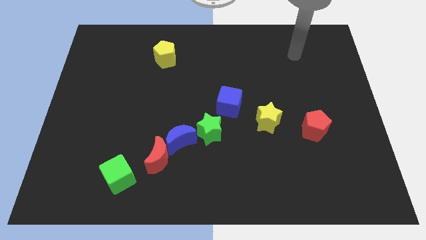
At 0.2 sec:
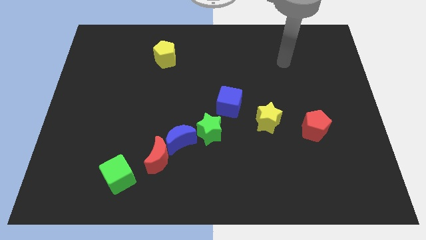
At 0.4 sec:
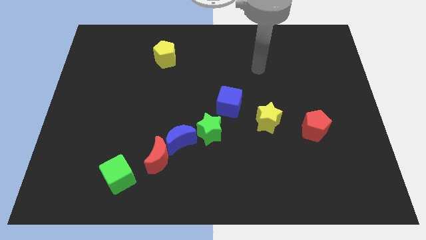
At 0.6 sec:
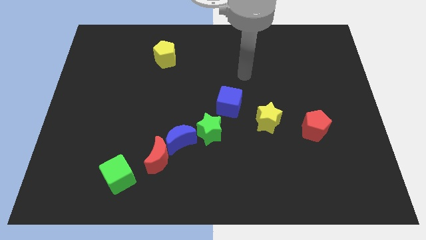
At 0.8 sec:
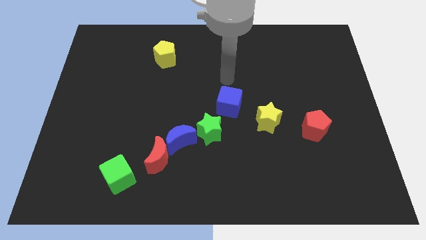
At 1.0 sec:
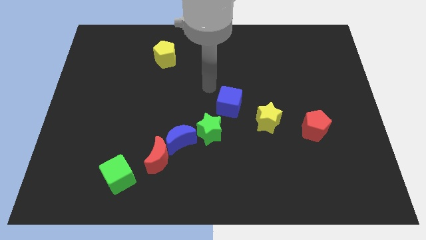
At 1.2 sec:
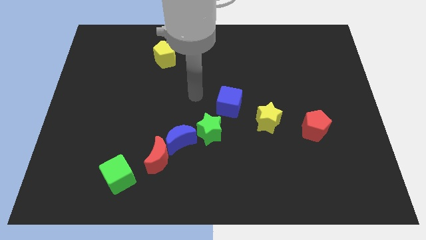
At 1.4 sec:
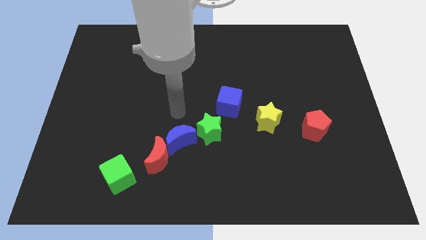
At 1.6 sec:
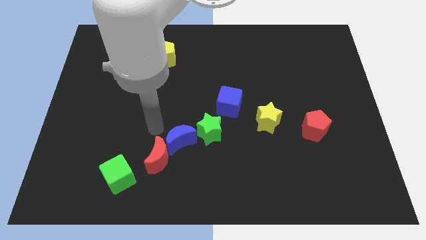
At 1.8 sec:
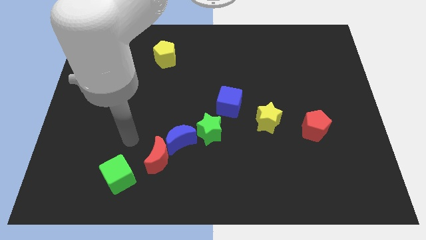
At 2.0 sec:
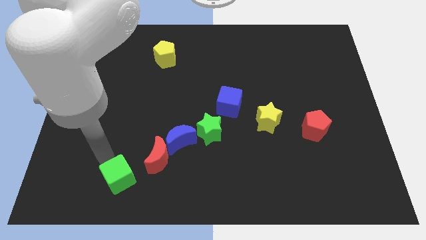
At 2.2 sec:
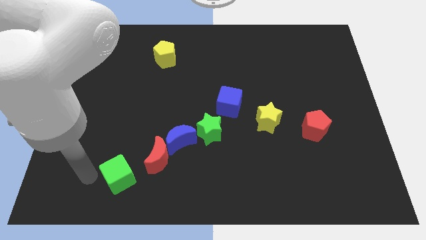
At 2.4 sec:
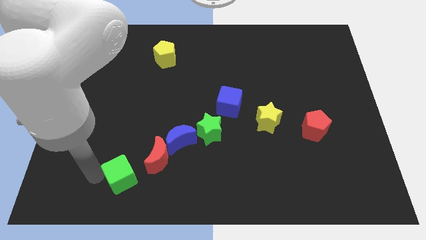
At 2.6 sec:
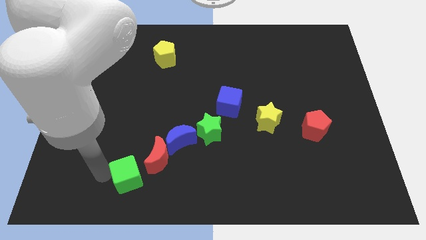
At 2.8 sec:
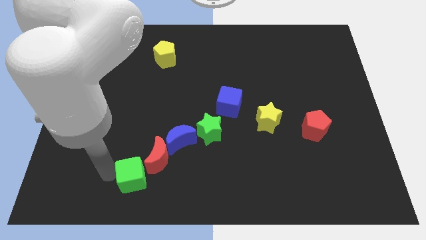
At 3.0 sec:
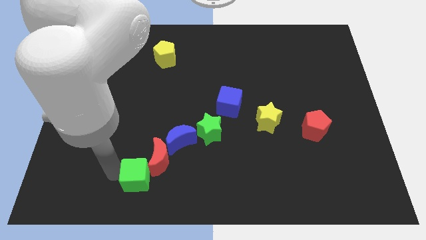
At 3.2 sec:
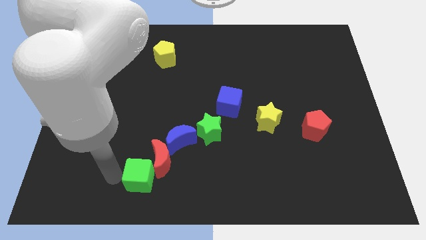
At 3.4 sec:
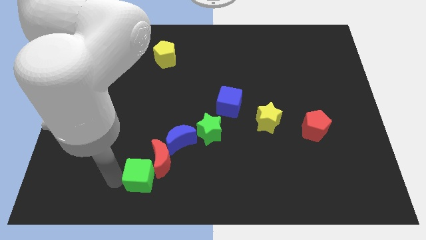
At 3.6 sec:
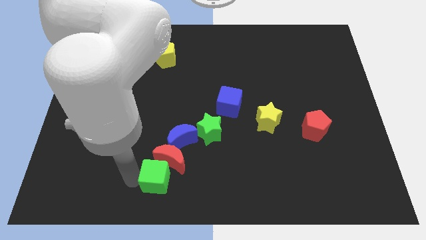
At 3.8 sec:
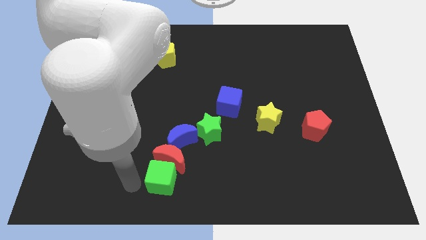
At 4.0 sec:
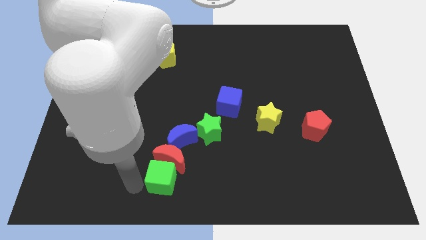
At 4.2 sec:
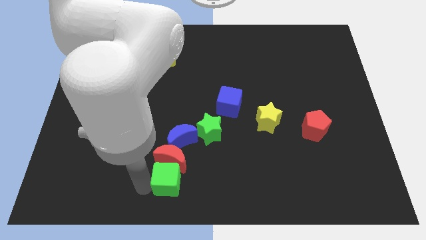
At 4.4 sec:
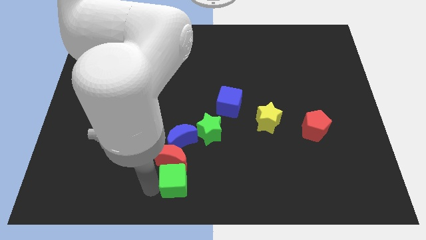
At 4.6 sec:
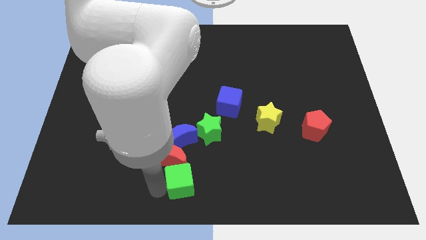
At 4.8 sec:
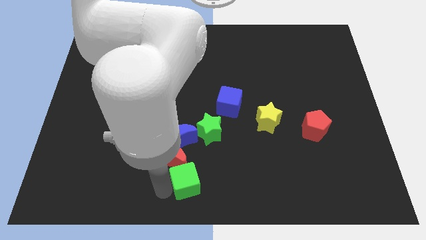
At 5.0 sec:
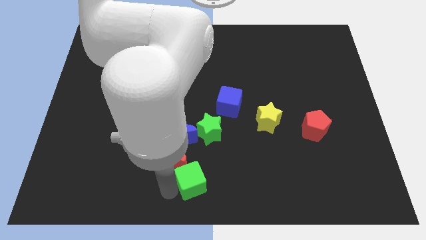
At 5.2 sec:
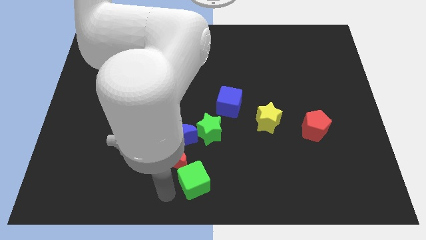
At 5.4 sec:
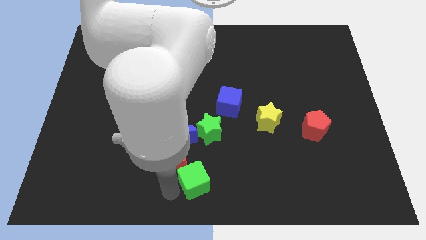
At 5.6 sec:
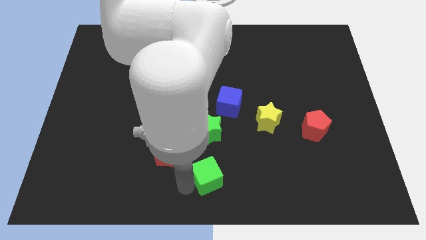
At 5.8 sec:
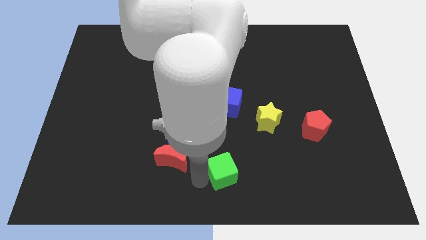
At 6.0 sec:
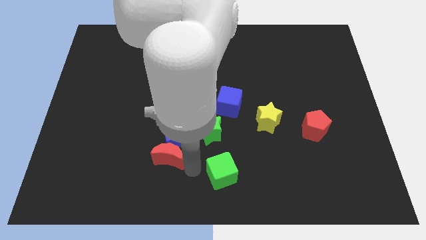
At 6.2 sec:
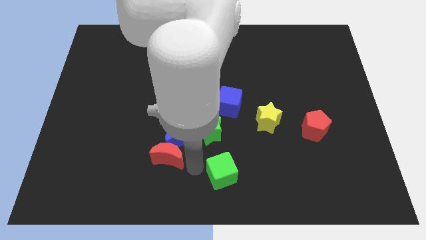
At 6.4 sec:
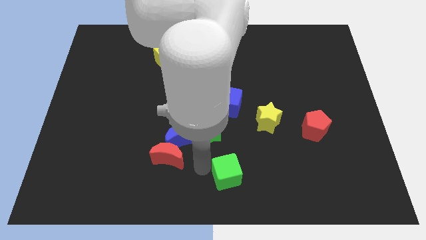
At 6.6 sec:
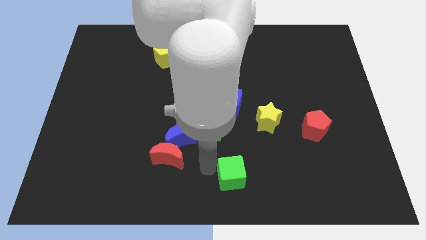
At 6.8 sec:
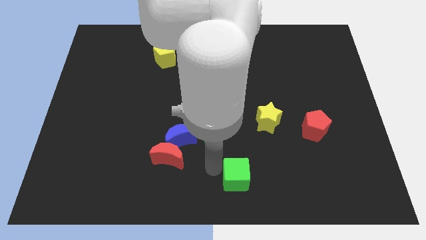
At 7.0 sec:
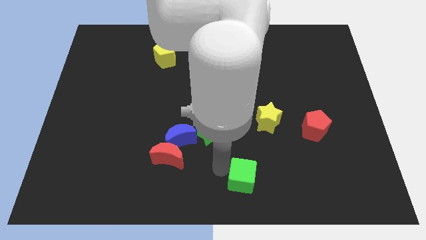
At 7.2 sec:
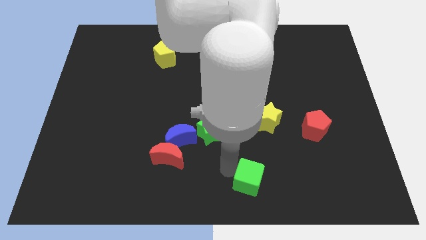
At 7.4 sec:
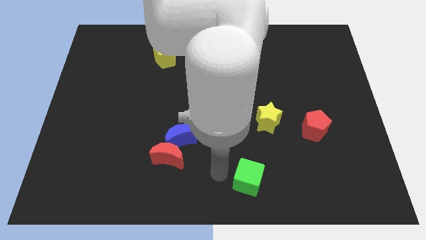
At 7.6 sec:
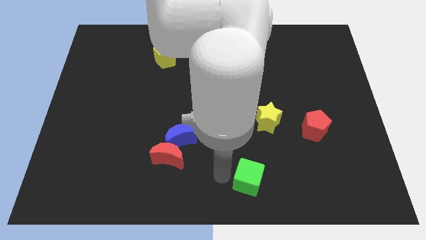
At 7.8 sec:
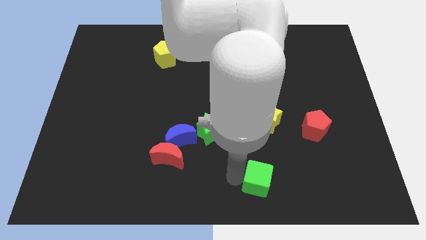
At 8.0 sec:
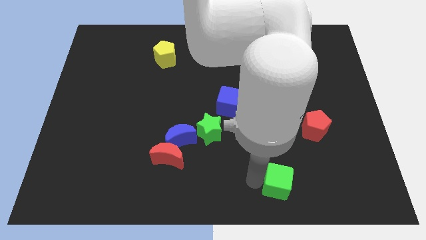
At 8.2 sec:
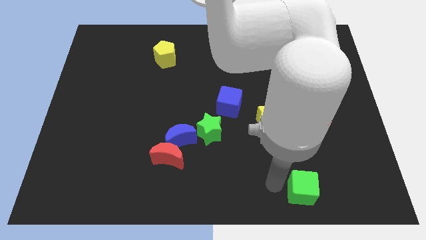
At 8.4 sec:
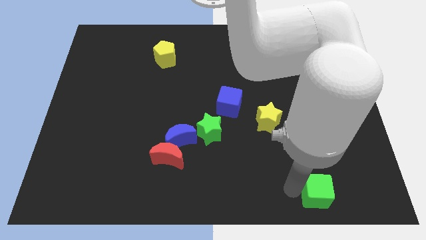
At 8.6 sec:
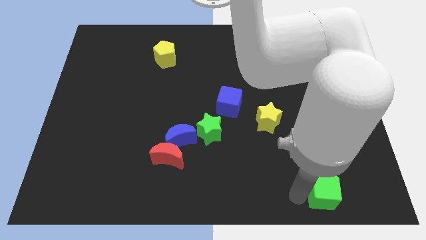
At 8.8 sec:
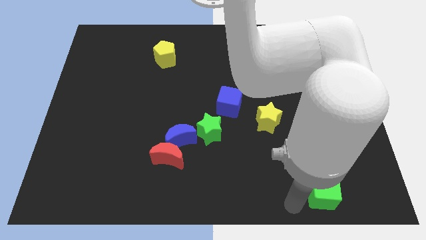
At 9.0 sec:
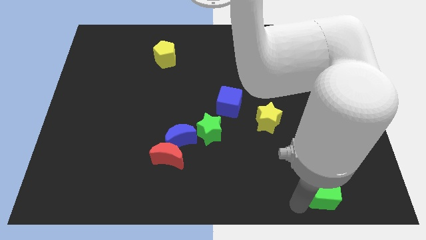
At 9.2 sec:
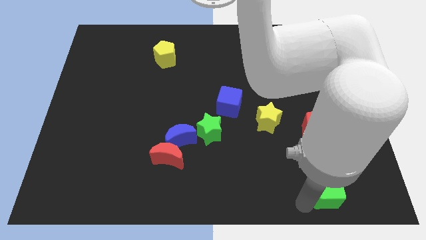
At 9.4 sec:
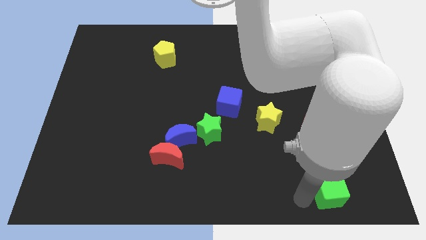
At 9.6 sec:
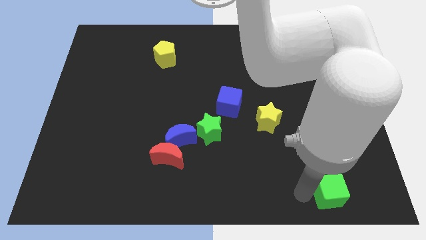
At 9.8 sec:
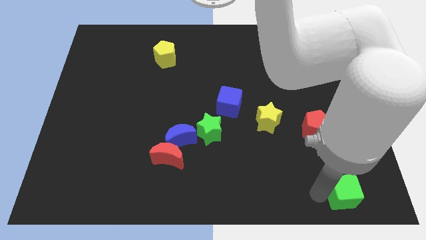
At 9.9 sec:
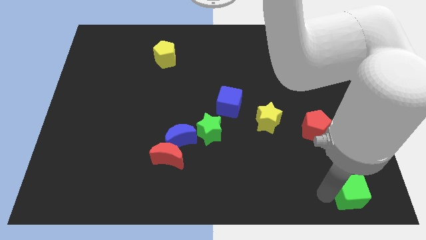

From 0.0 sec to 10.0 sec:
slide the green cube to the lower right corner

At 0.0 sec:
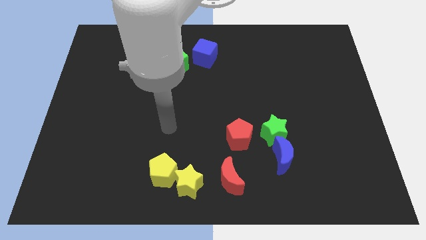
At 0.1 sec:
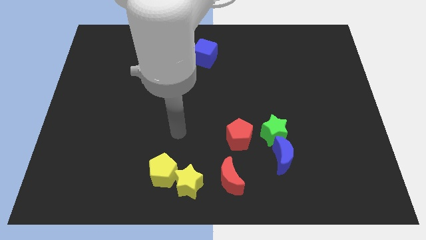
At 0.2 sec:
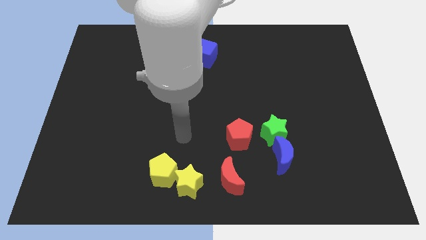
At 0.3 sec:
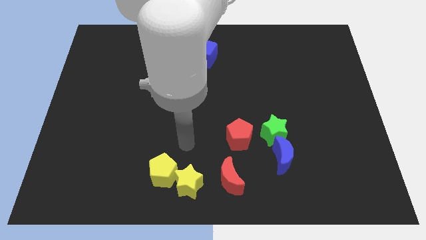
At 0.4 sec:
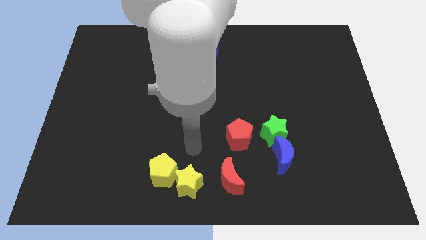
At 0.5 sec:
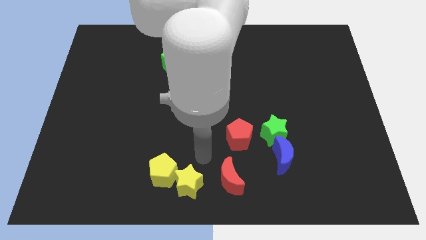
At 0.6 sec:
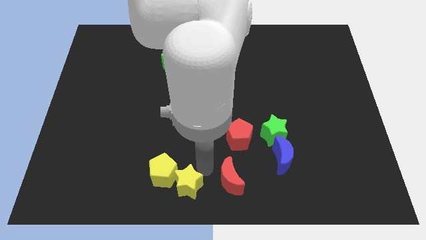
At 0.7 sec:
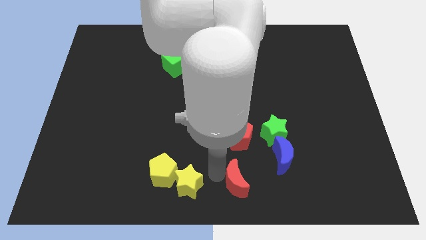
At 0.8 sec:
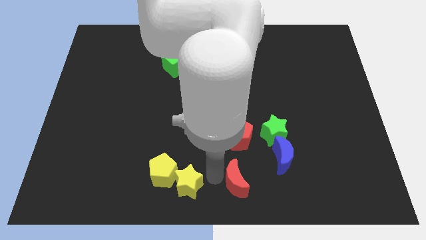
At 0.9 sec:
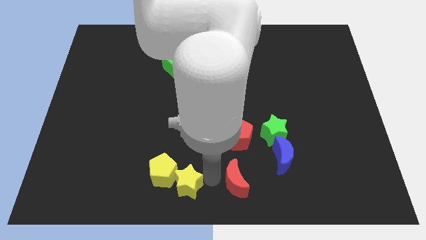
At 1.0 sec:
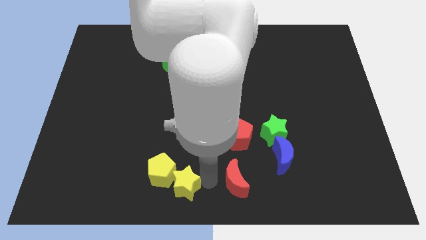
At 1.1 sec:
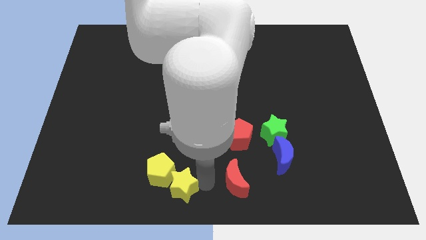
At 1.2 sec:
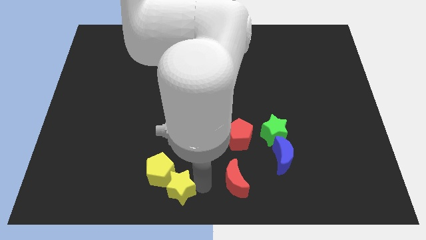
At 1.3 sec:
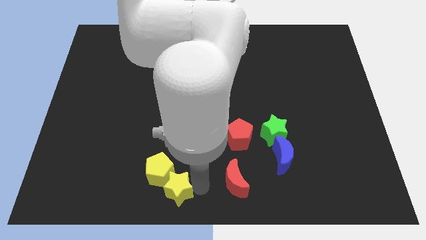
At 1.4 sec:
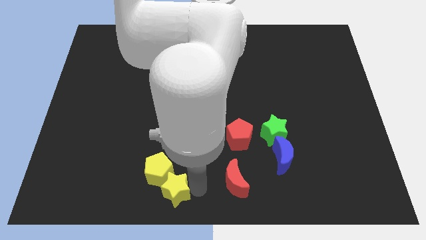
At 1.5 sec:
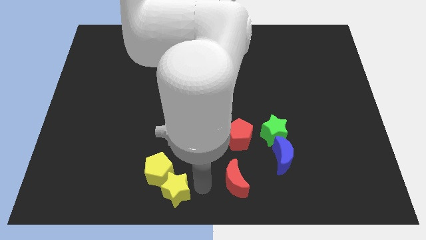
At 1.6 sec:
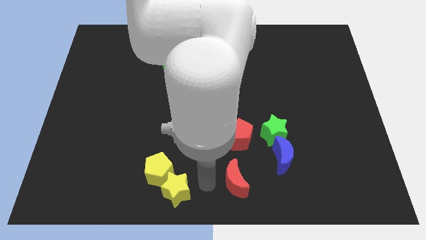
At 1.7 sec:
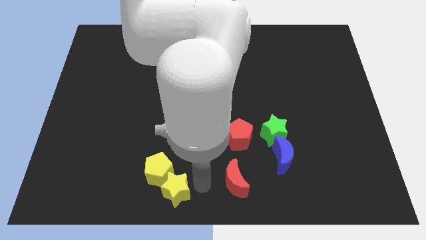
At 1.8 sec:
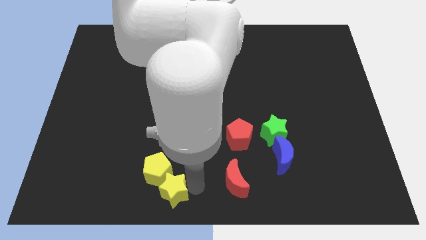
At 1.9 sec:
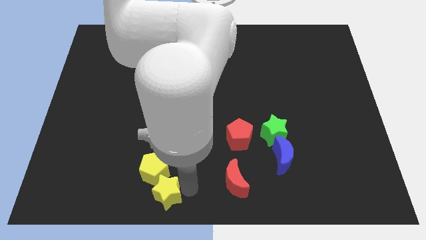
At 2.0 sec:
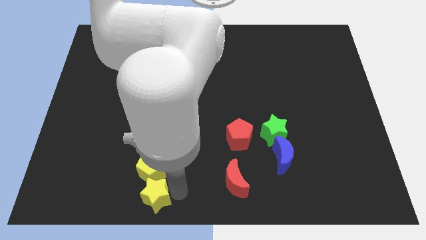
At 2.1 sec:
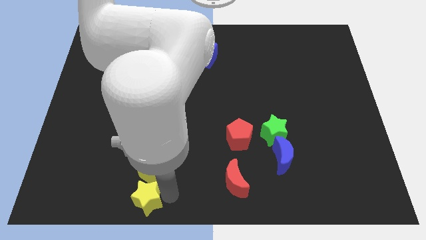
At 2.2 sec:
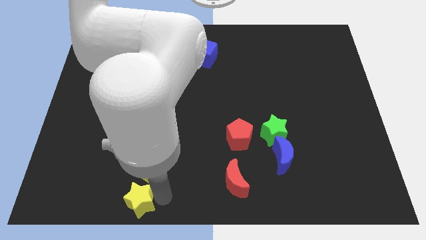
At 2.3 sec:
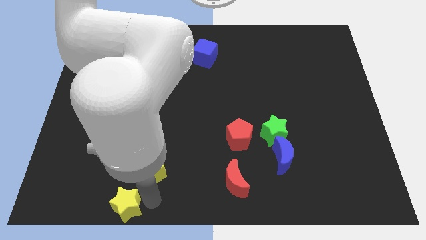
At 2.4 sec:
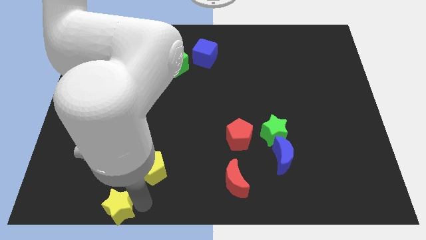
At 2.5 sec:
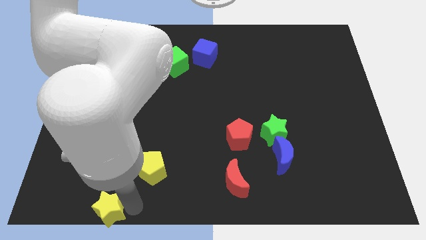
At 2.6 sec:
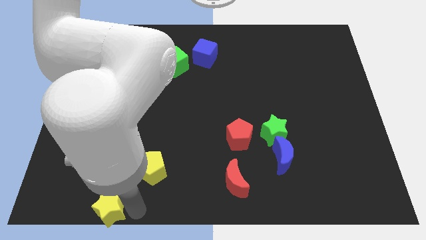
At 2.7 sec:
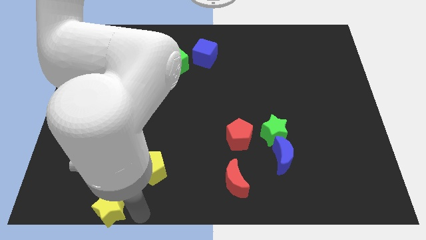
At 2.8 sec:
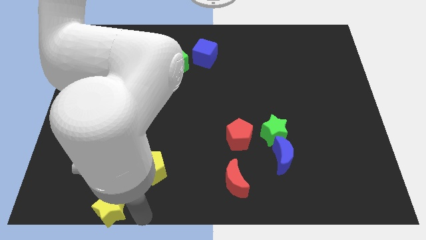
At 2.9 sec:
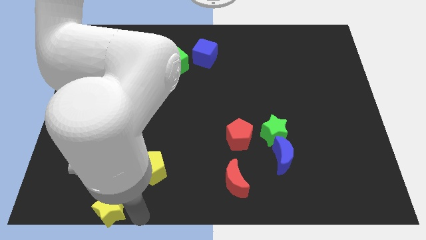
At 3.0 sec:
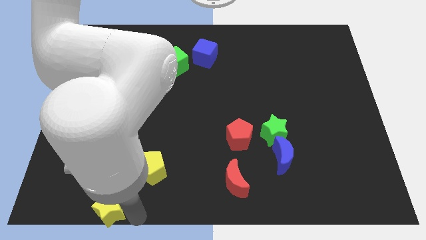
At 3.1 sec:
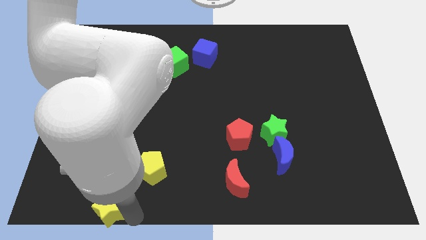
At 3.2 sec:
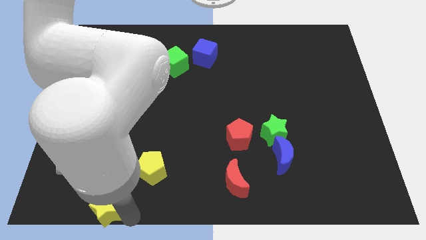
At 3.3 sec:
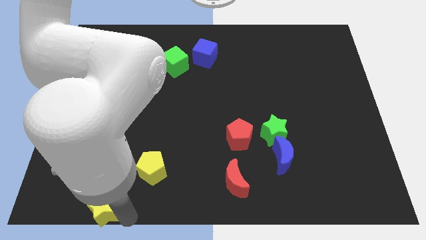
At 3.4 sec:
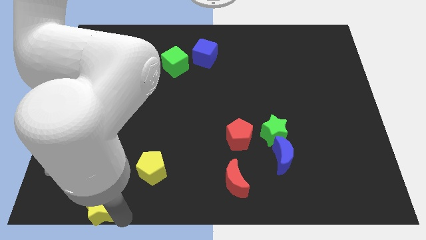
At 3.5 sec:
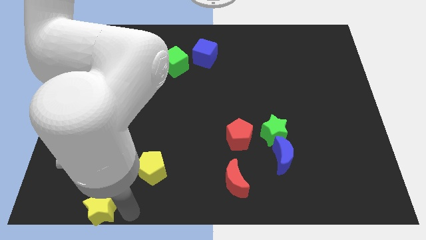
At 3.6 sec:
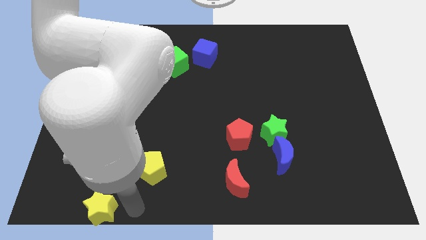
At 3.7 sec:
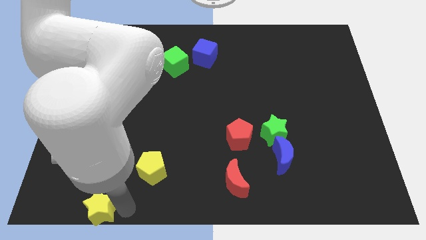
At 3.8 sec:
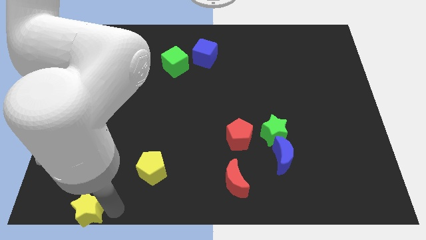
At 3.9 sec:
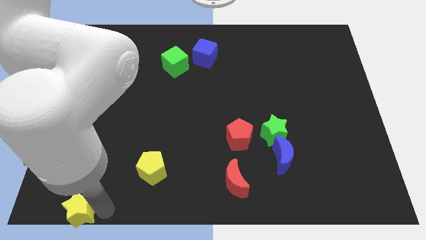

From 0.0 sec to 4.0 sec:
put the yellow star to the bottom left
